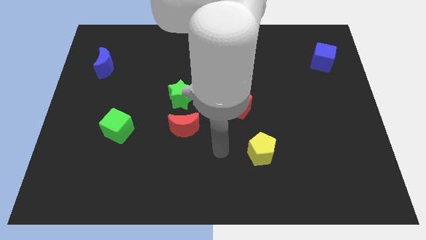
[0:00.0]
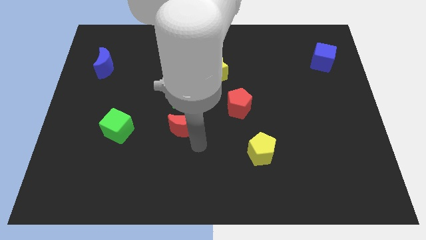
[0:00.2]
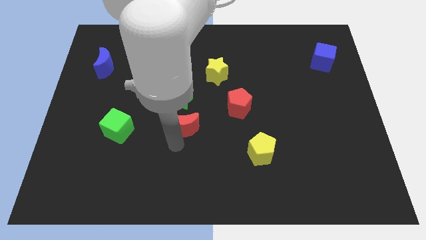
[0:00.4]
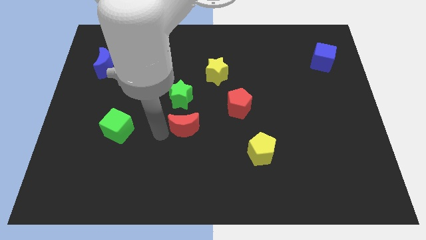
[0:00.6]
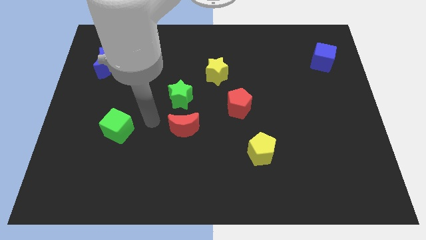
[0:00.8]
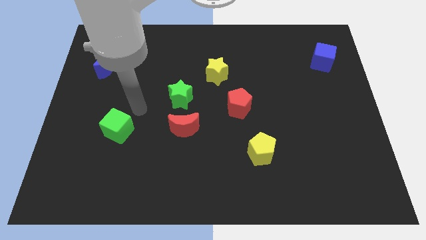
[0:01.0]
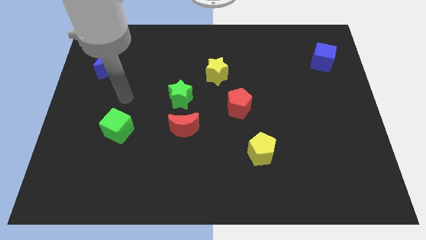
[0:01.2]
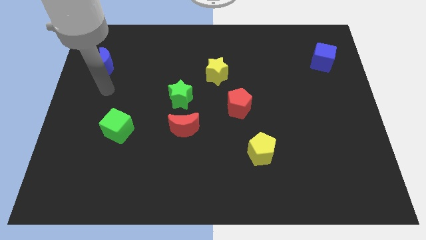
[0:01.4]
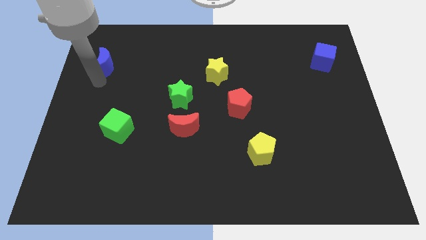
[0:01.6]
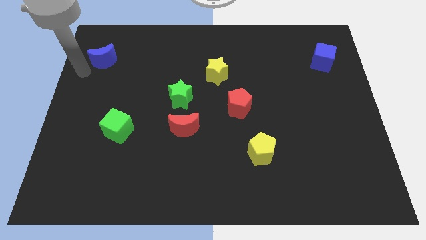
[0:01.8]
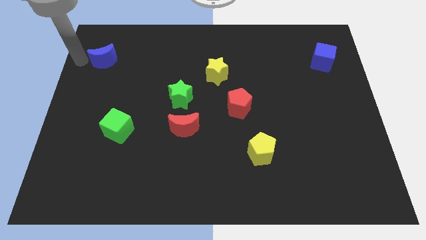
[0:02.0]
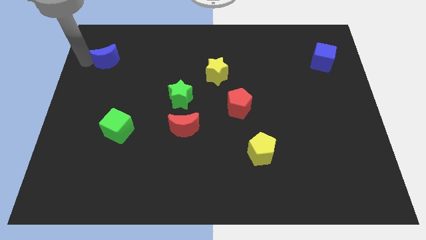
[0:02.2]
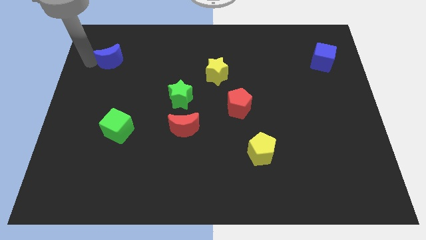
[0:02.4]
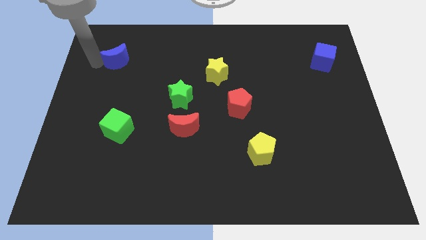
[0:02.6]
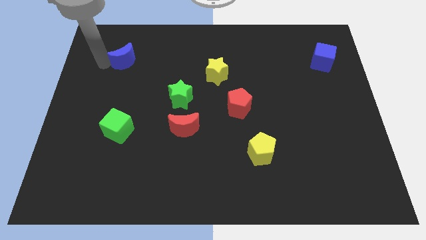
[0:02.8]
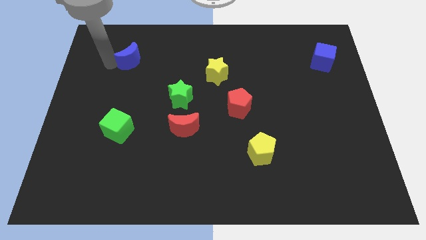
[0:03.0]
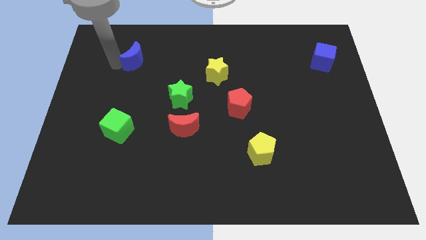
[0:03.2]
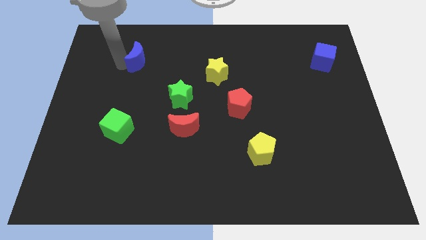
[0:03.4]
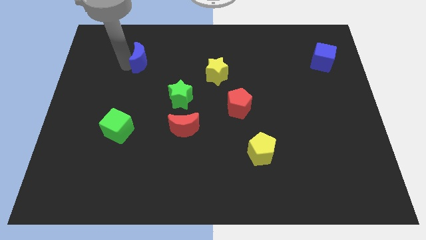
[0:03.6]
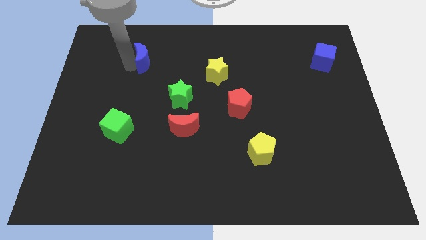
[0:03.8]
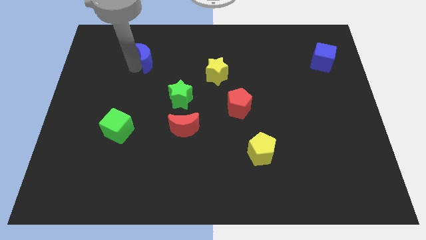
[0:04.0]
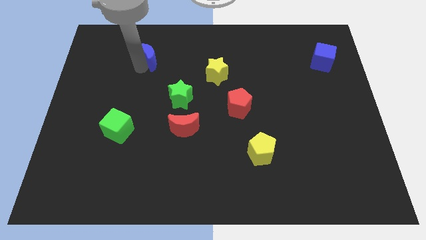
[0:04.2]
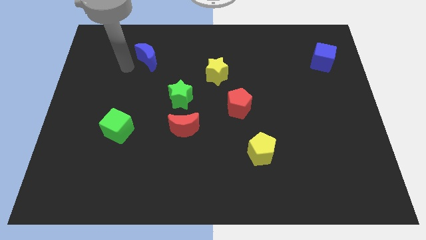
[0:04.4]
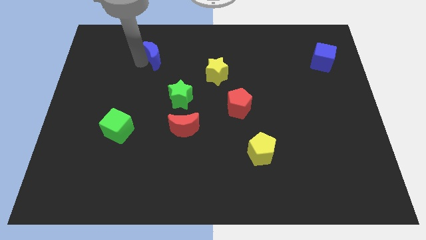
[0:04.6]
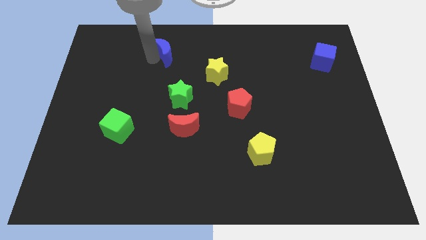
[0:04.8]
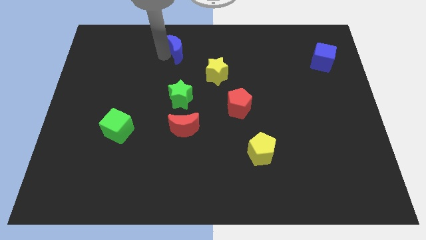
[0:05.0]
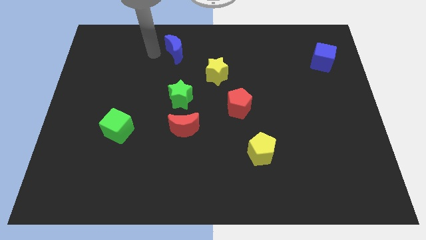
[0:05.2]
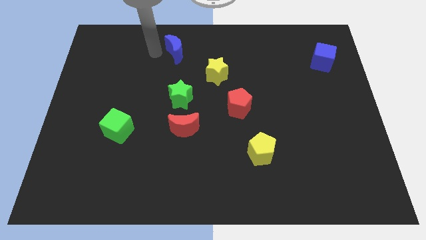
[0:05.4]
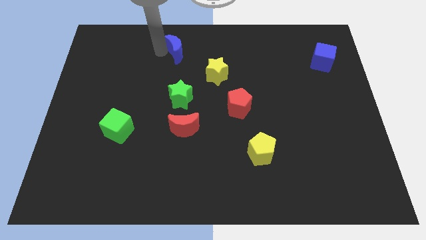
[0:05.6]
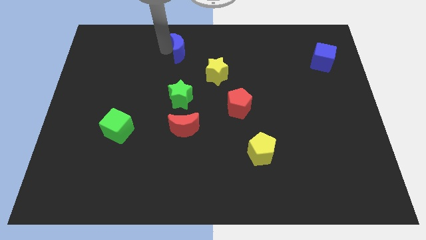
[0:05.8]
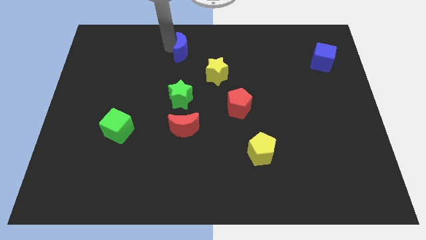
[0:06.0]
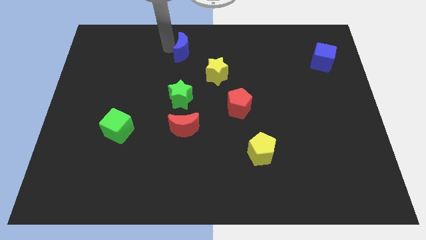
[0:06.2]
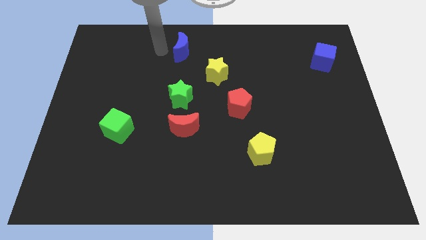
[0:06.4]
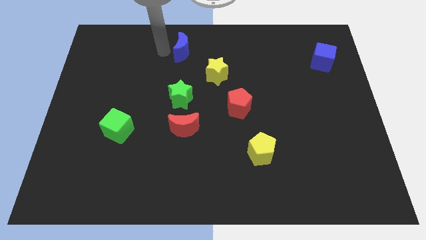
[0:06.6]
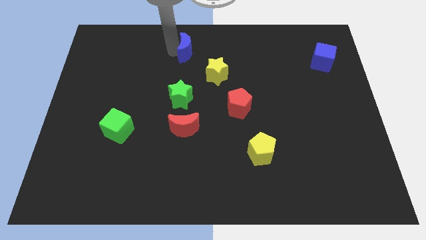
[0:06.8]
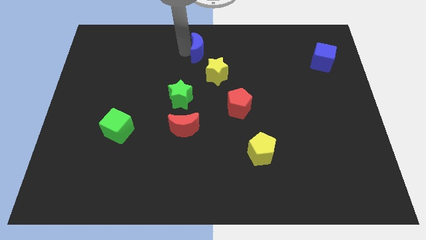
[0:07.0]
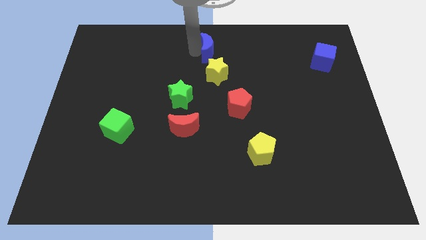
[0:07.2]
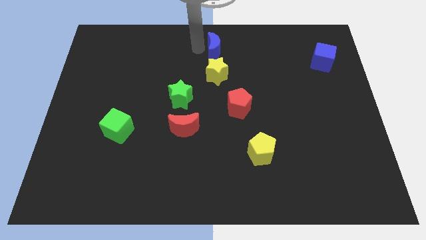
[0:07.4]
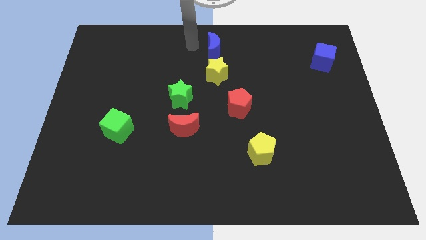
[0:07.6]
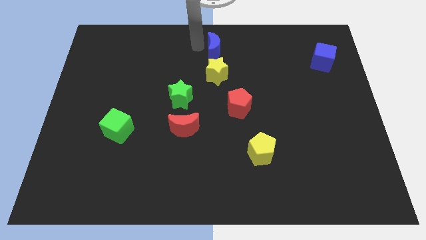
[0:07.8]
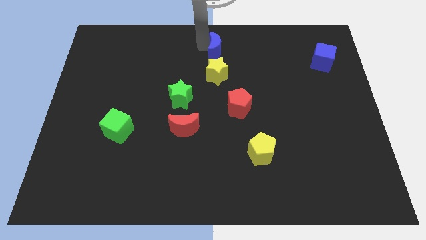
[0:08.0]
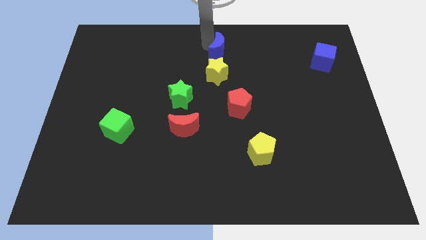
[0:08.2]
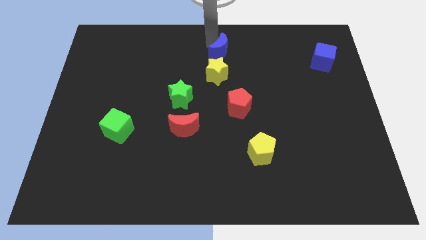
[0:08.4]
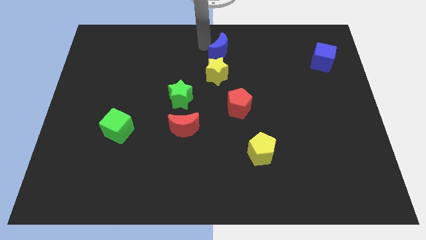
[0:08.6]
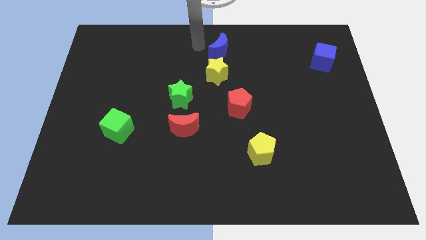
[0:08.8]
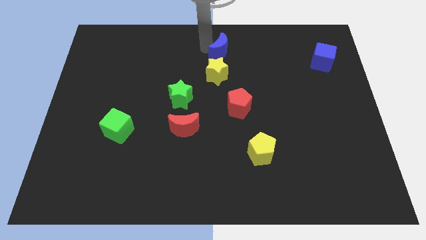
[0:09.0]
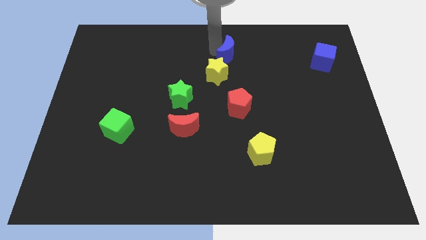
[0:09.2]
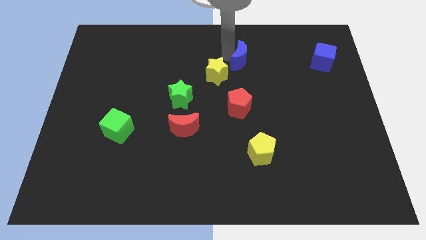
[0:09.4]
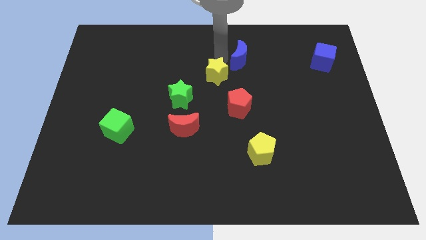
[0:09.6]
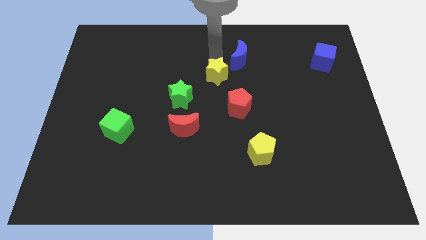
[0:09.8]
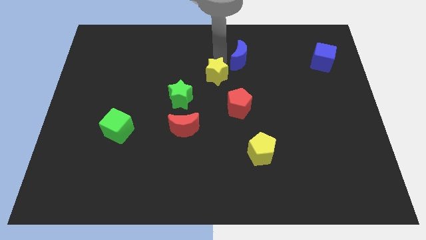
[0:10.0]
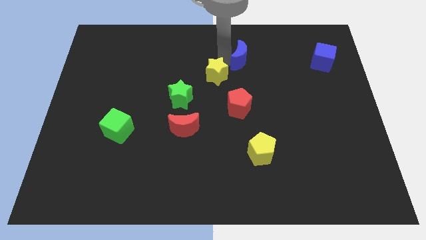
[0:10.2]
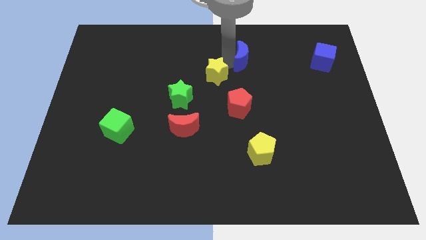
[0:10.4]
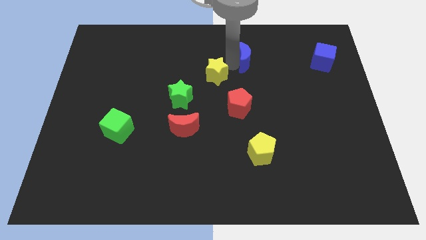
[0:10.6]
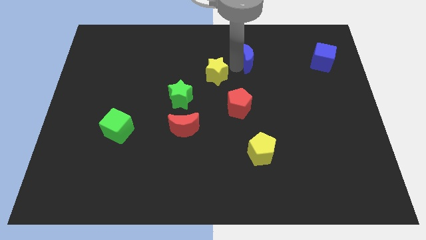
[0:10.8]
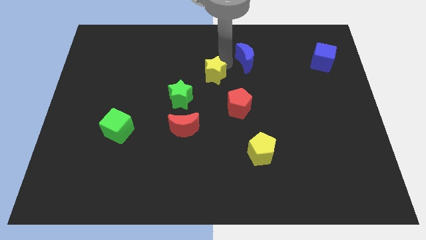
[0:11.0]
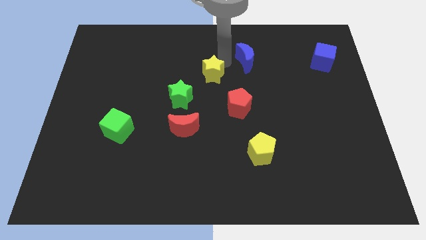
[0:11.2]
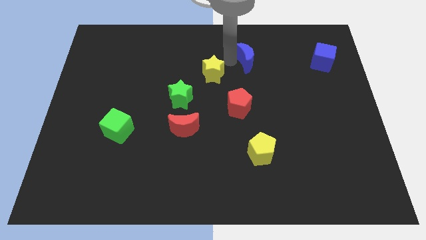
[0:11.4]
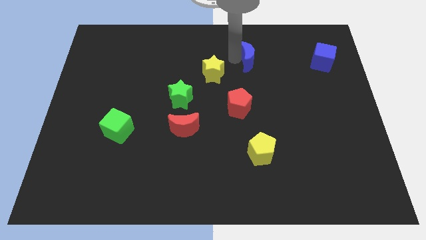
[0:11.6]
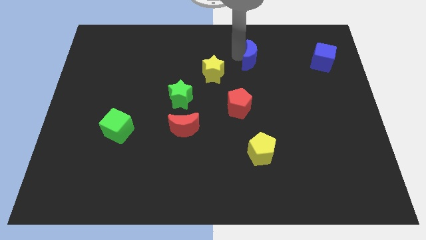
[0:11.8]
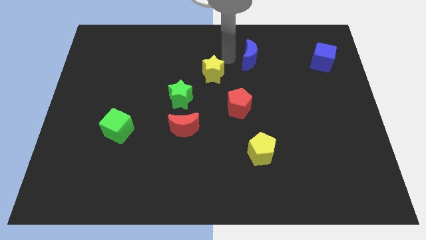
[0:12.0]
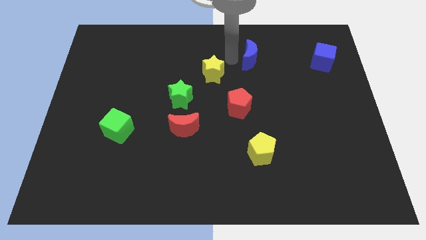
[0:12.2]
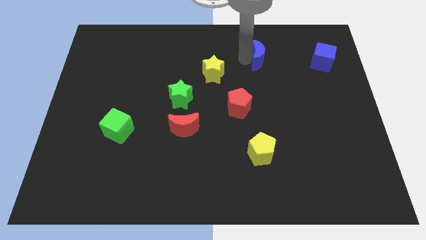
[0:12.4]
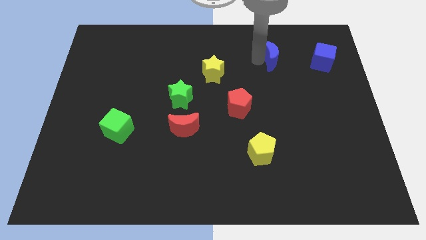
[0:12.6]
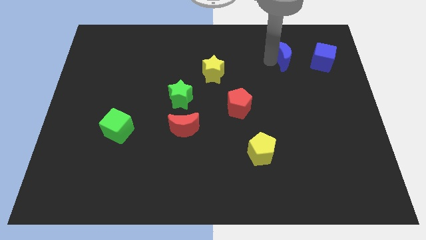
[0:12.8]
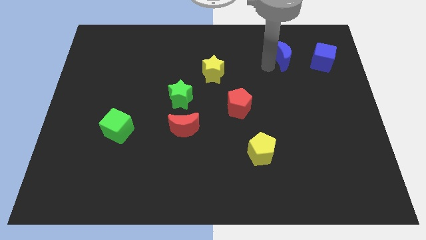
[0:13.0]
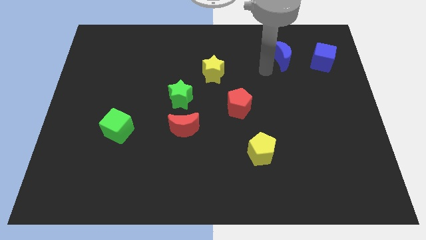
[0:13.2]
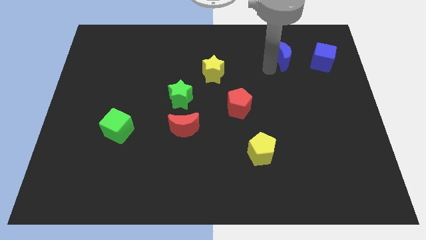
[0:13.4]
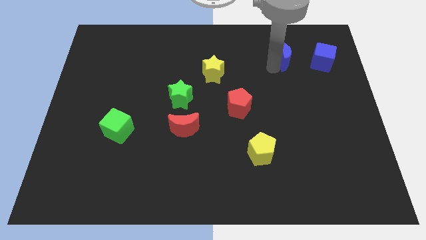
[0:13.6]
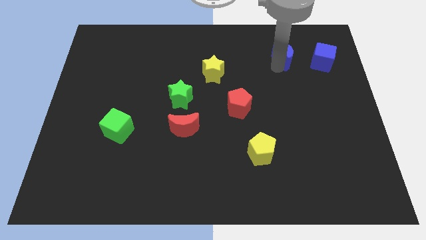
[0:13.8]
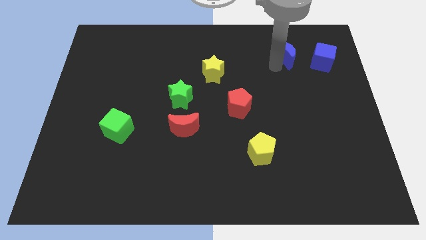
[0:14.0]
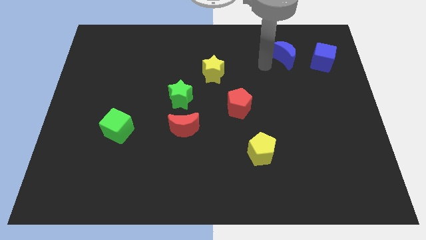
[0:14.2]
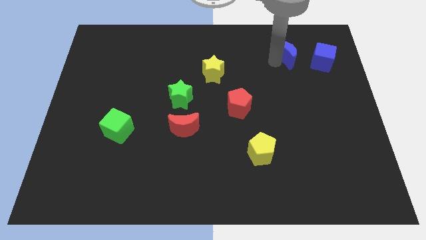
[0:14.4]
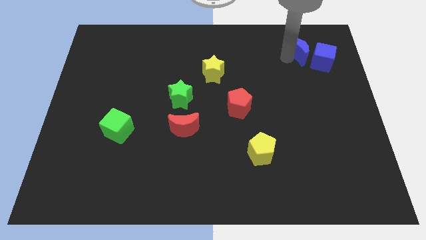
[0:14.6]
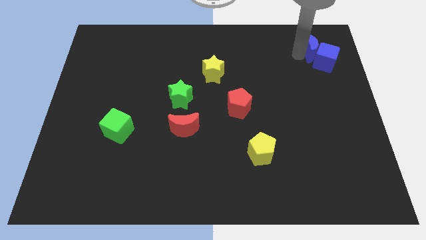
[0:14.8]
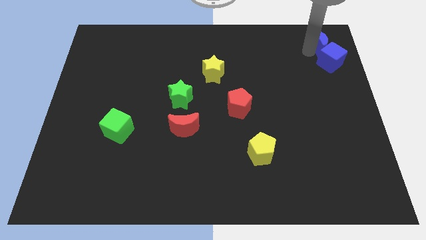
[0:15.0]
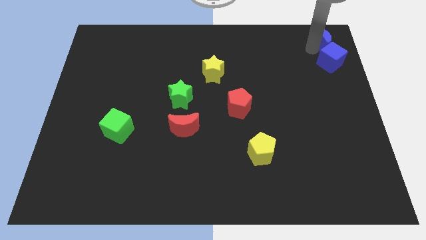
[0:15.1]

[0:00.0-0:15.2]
move the blue moon to the top right corner
